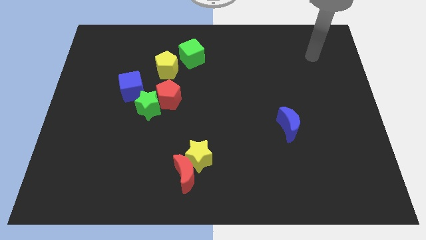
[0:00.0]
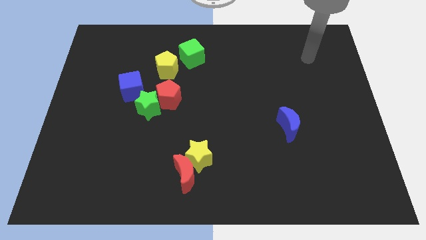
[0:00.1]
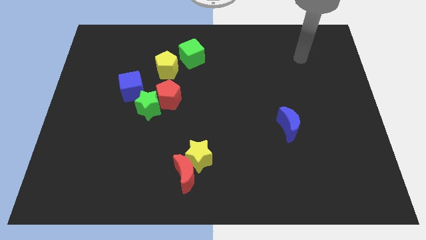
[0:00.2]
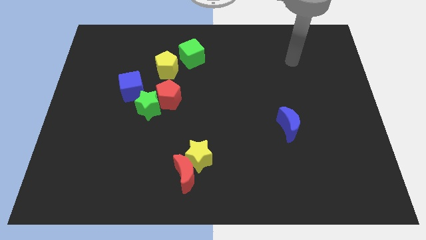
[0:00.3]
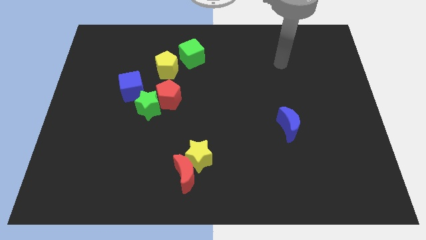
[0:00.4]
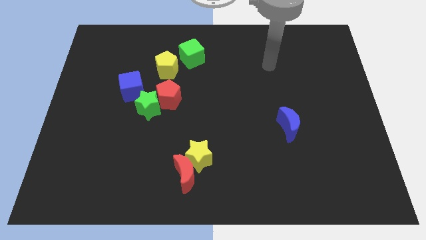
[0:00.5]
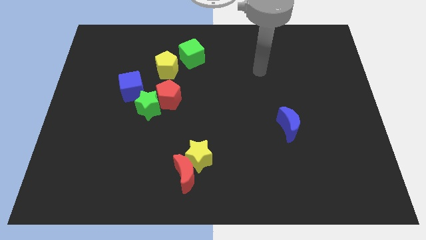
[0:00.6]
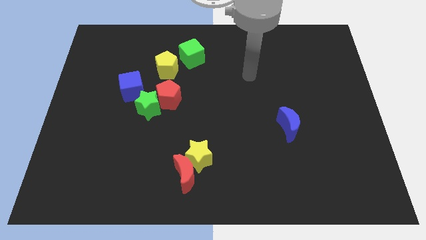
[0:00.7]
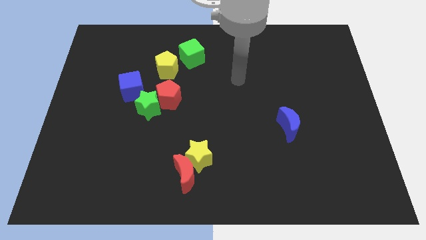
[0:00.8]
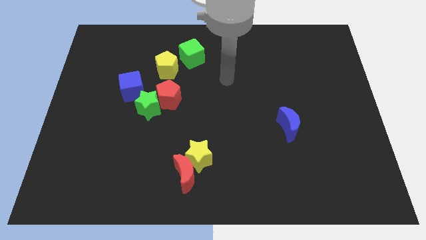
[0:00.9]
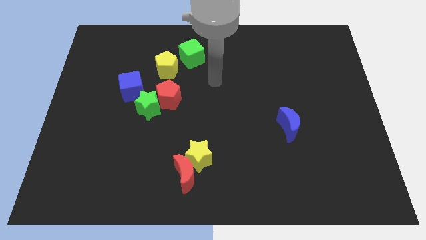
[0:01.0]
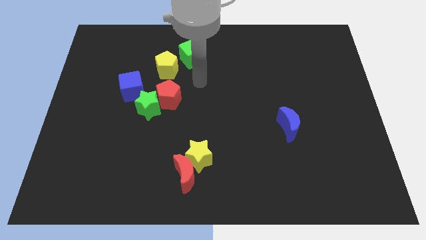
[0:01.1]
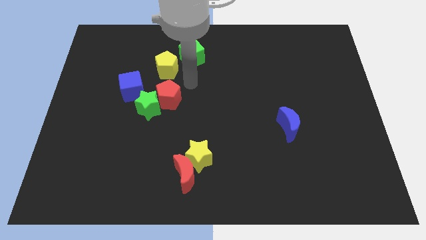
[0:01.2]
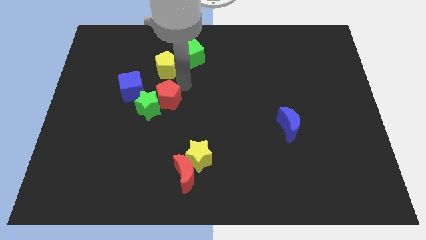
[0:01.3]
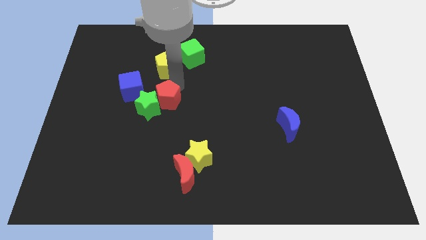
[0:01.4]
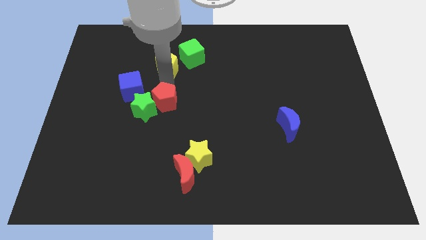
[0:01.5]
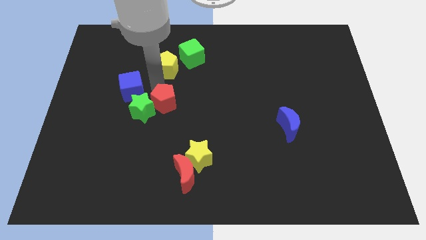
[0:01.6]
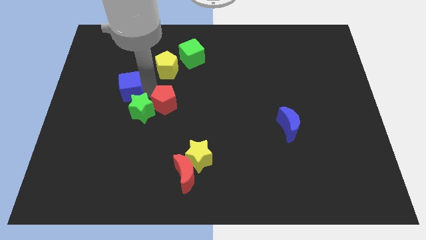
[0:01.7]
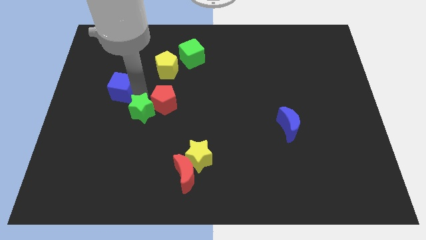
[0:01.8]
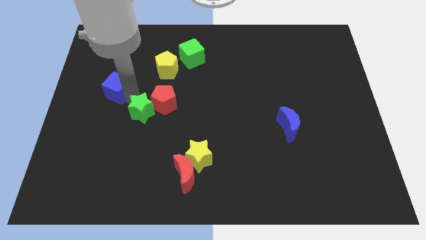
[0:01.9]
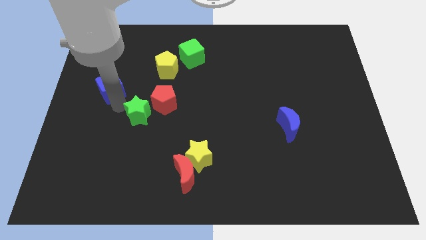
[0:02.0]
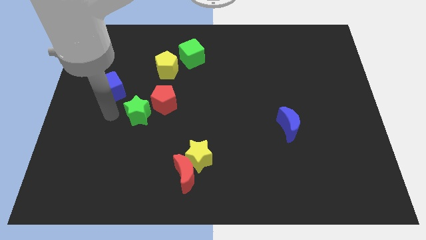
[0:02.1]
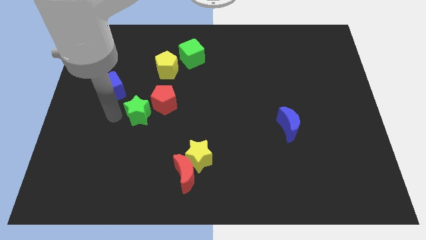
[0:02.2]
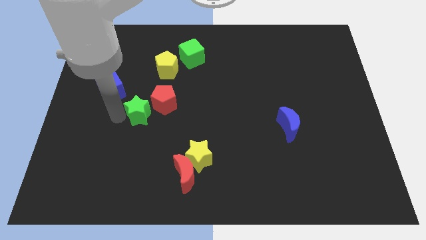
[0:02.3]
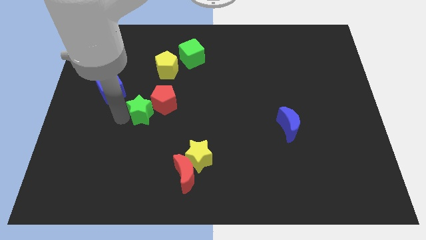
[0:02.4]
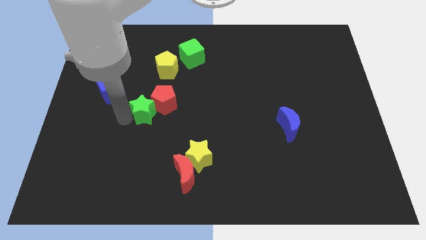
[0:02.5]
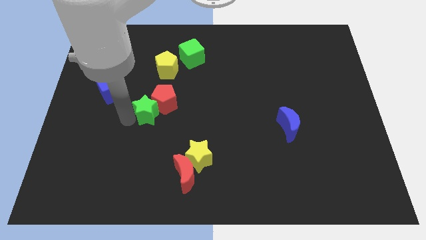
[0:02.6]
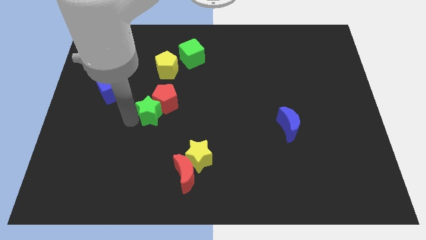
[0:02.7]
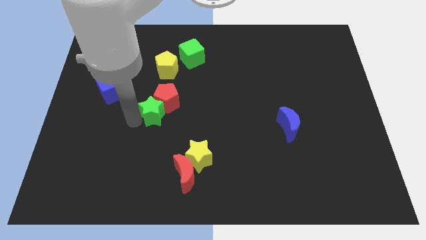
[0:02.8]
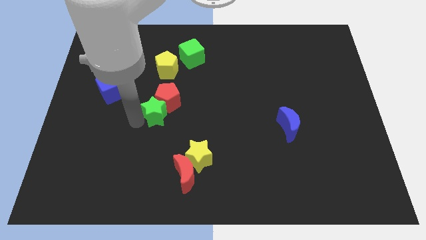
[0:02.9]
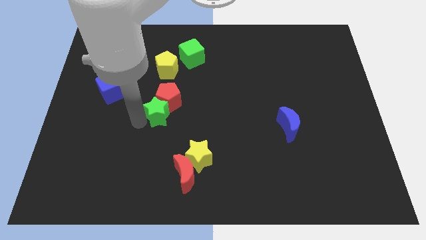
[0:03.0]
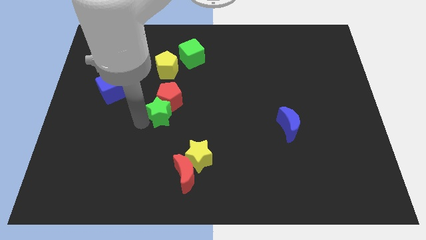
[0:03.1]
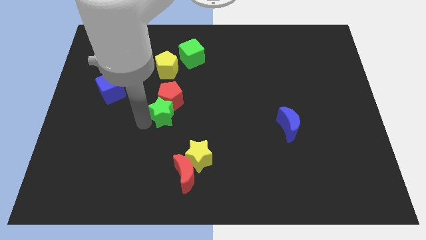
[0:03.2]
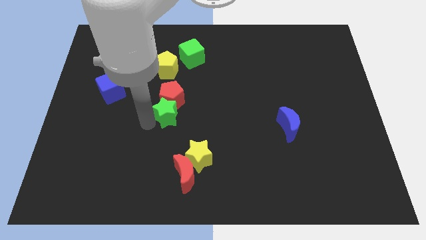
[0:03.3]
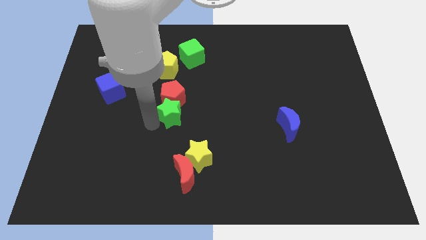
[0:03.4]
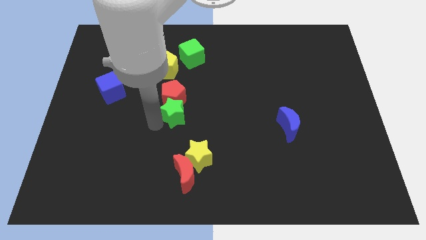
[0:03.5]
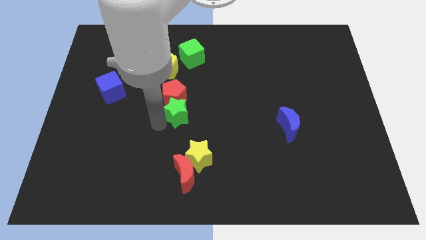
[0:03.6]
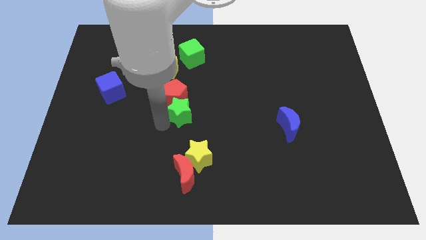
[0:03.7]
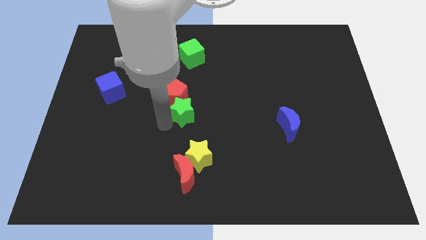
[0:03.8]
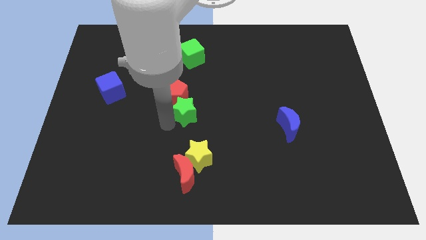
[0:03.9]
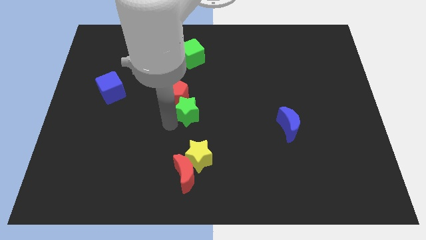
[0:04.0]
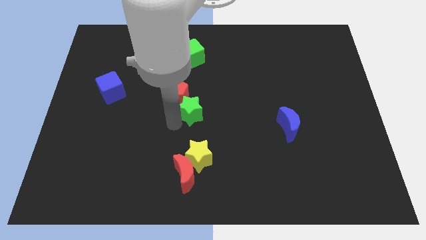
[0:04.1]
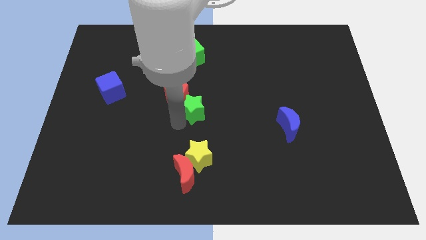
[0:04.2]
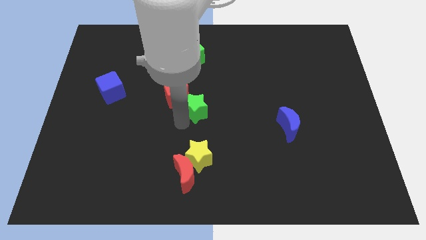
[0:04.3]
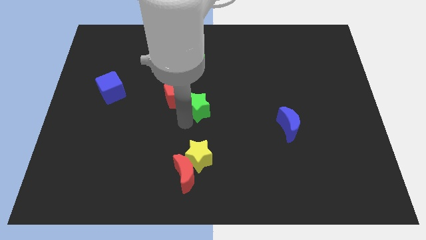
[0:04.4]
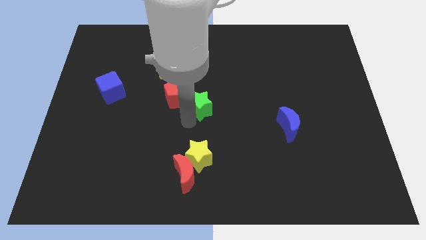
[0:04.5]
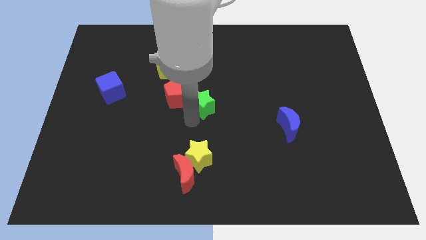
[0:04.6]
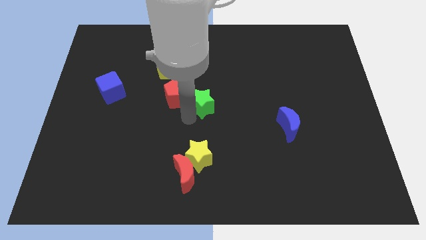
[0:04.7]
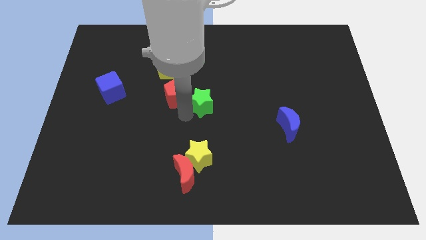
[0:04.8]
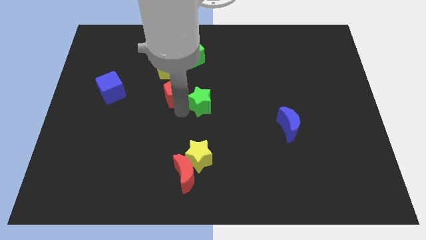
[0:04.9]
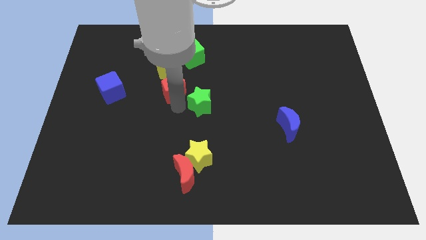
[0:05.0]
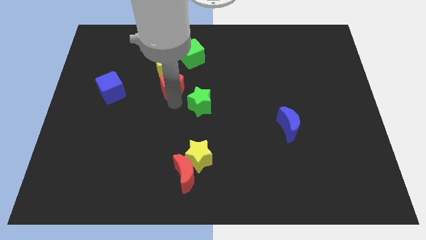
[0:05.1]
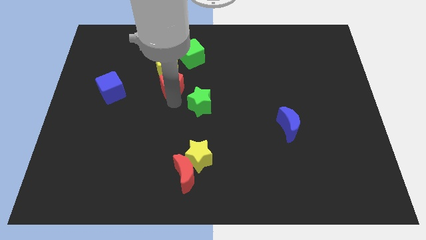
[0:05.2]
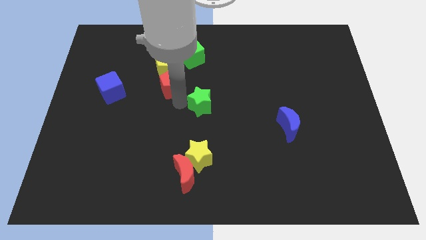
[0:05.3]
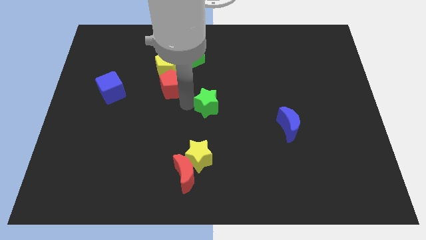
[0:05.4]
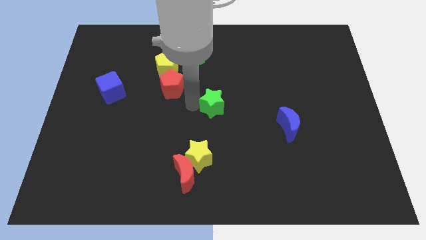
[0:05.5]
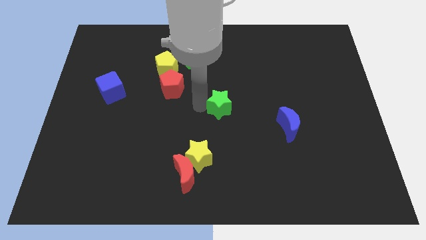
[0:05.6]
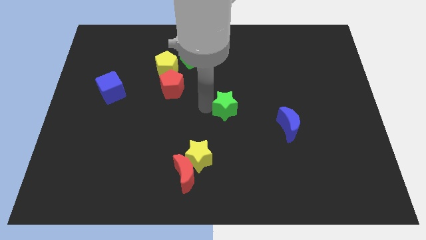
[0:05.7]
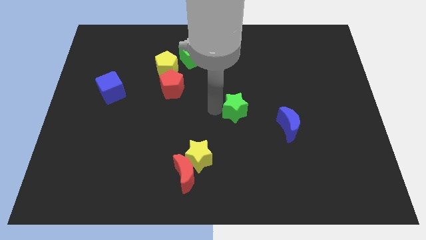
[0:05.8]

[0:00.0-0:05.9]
move the green star right

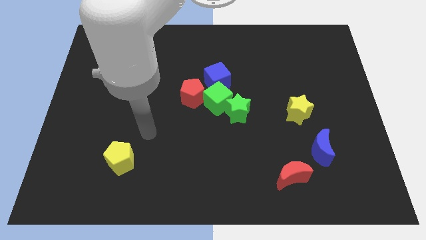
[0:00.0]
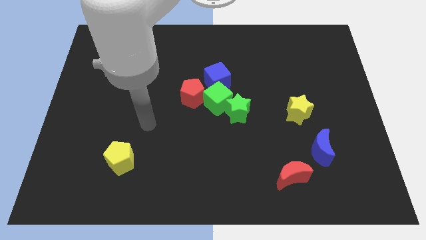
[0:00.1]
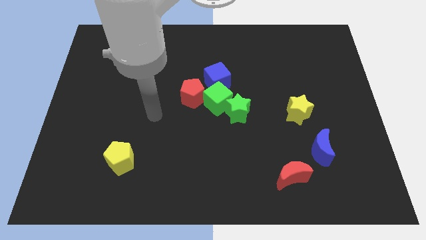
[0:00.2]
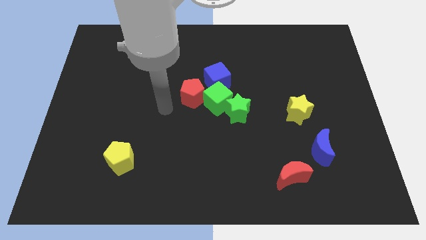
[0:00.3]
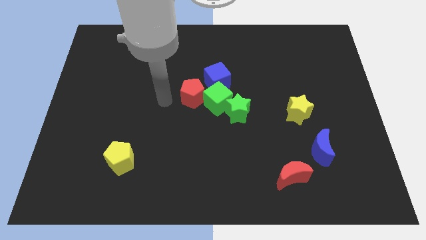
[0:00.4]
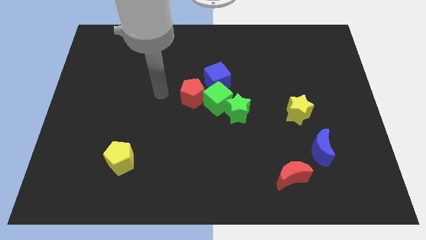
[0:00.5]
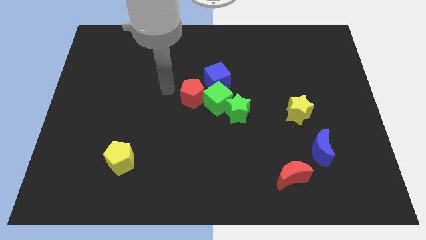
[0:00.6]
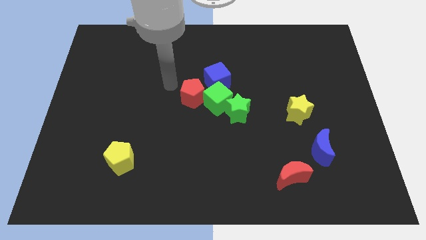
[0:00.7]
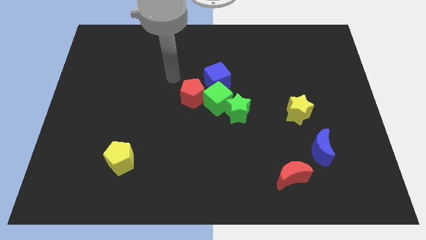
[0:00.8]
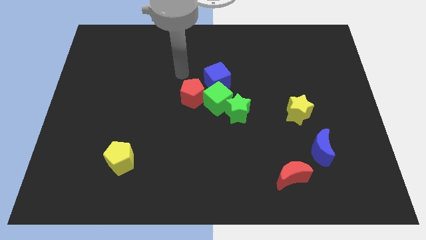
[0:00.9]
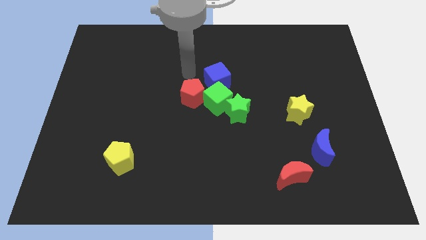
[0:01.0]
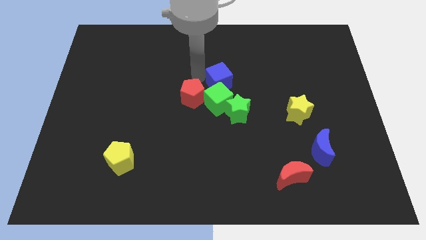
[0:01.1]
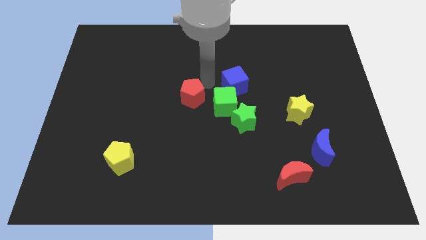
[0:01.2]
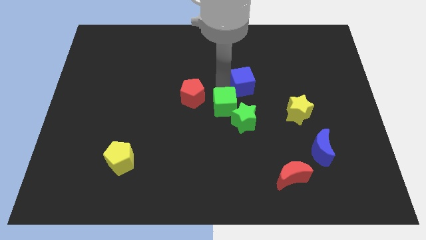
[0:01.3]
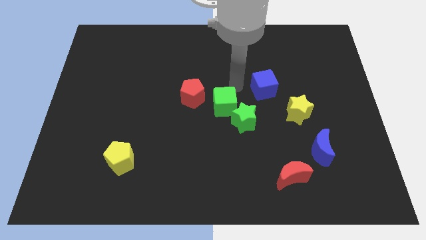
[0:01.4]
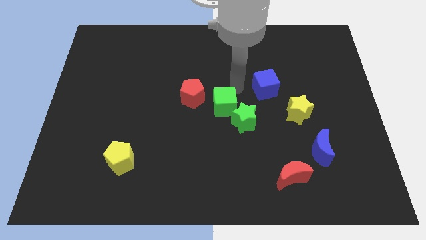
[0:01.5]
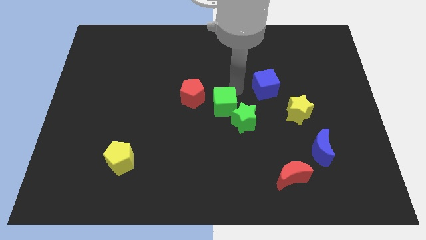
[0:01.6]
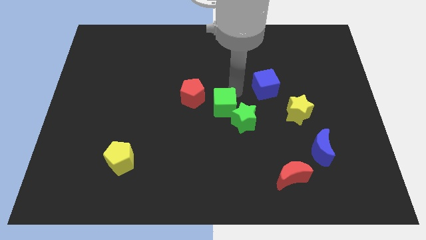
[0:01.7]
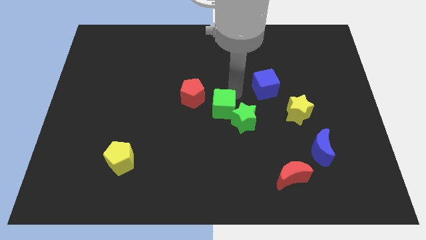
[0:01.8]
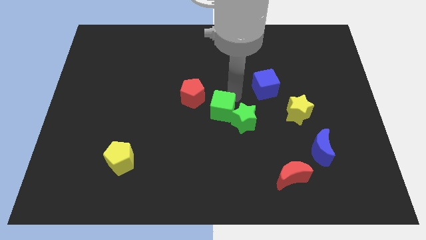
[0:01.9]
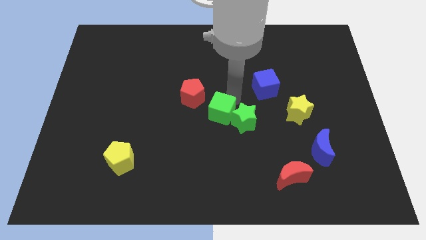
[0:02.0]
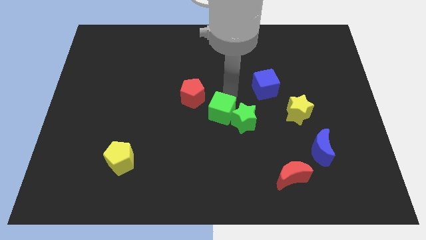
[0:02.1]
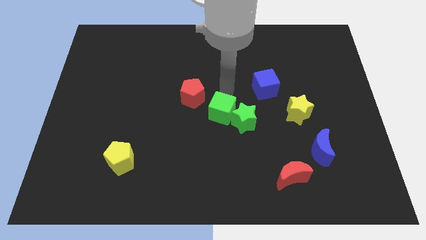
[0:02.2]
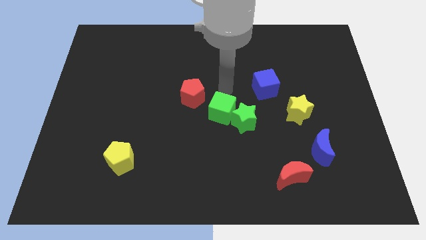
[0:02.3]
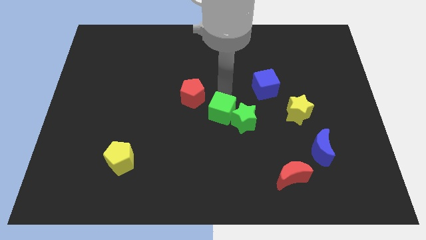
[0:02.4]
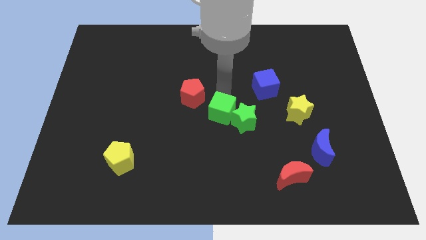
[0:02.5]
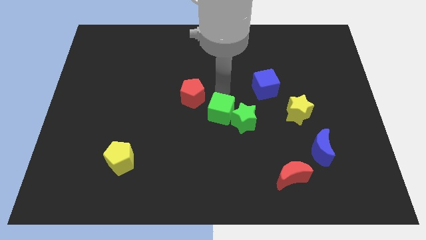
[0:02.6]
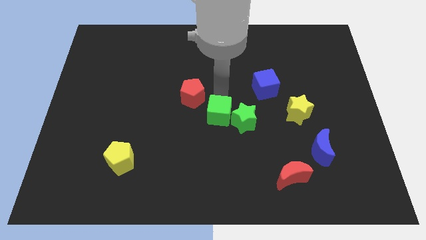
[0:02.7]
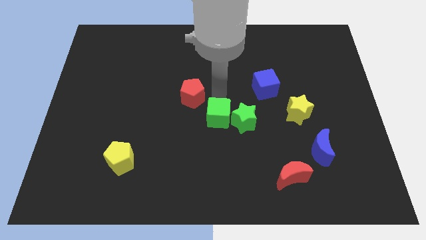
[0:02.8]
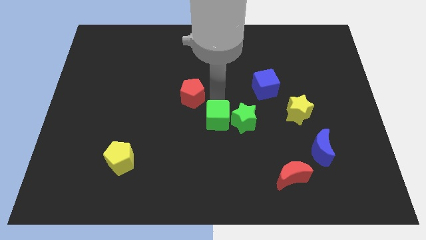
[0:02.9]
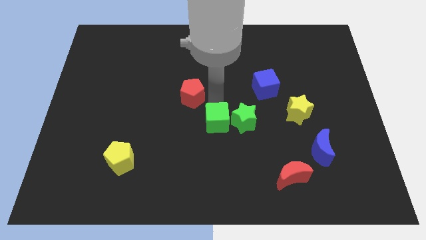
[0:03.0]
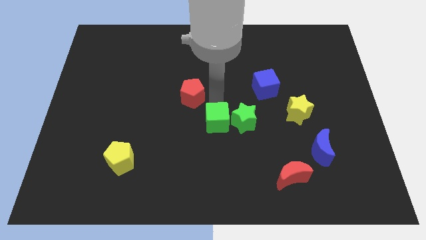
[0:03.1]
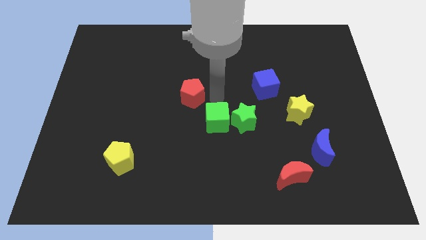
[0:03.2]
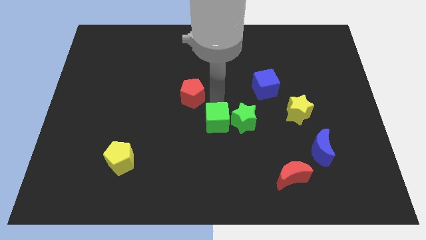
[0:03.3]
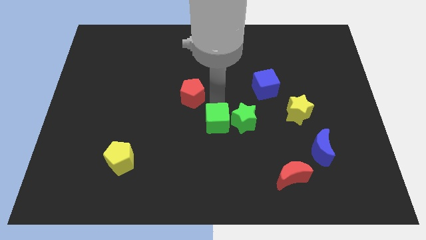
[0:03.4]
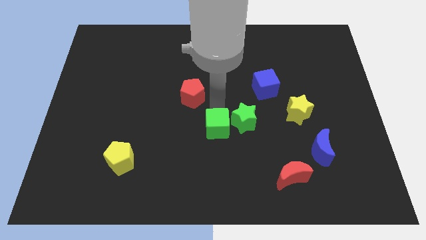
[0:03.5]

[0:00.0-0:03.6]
slightly move the green cube down
